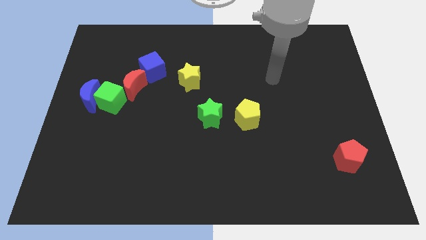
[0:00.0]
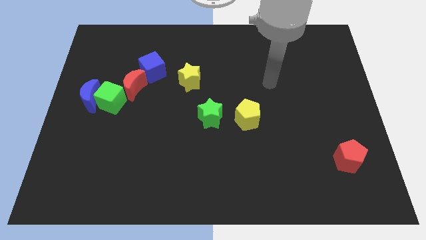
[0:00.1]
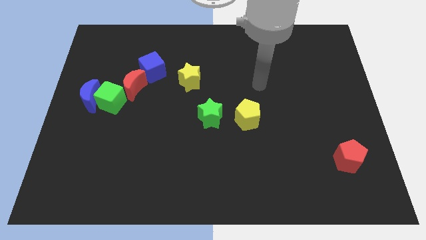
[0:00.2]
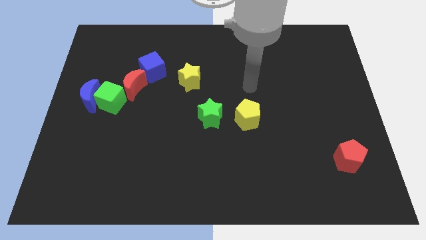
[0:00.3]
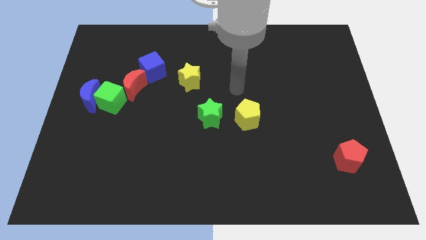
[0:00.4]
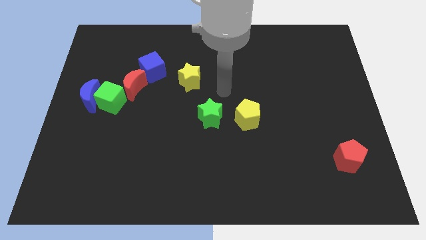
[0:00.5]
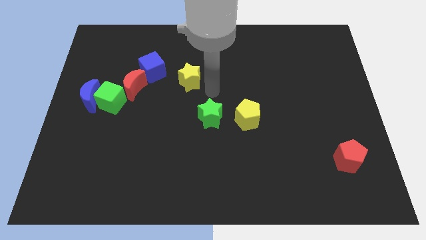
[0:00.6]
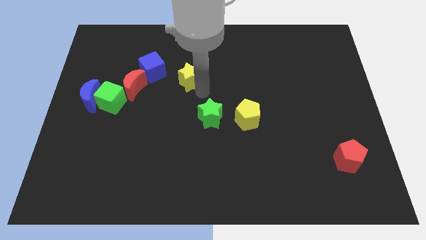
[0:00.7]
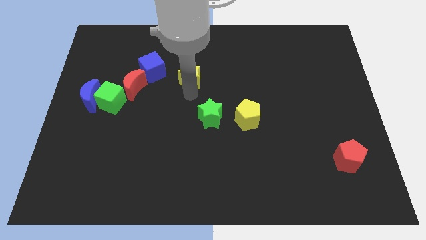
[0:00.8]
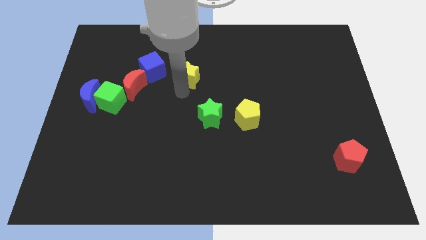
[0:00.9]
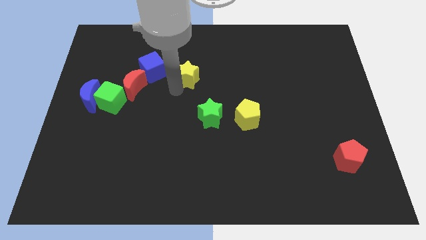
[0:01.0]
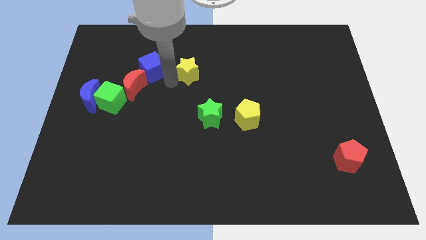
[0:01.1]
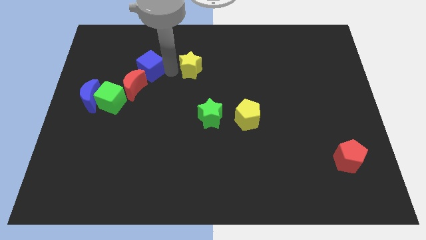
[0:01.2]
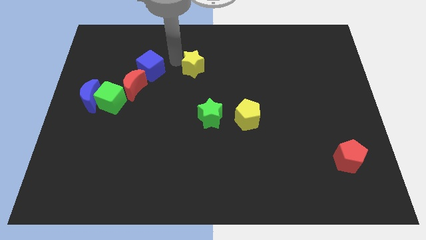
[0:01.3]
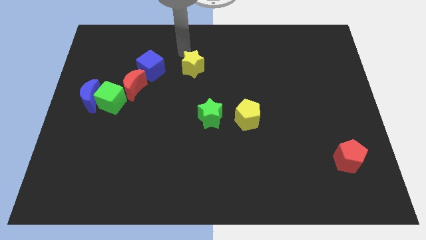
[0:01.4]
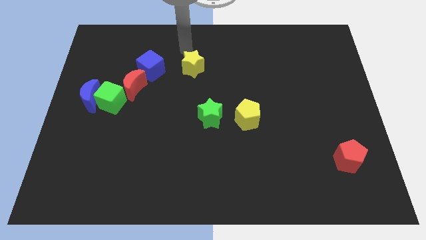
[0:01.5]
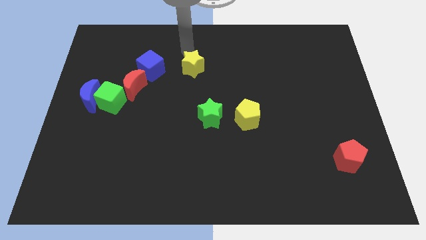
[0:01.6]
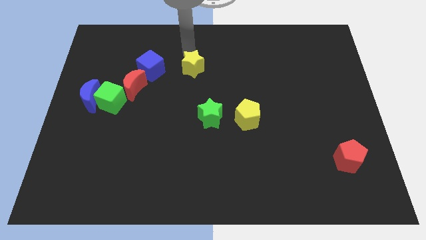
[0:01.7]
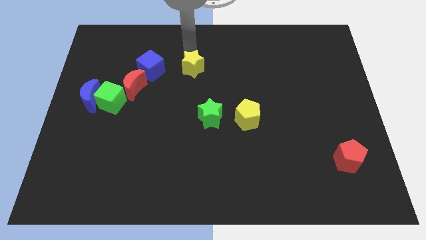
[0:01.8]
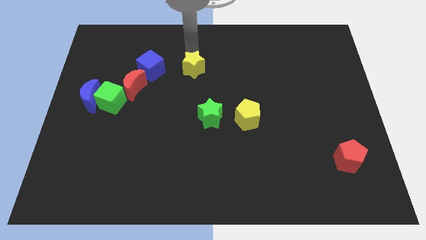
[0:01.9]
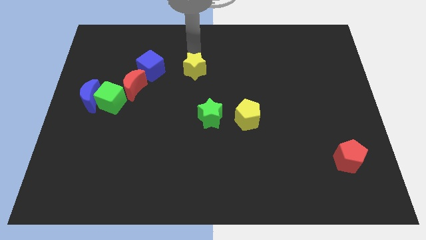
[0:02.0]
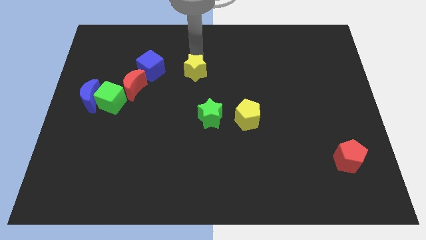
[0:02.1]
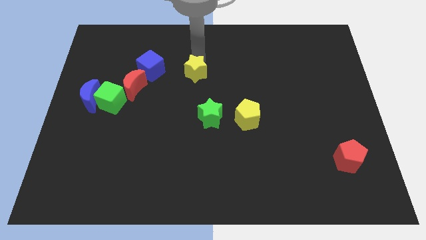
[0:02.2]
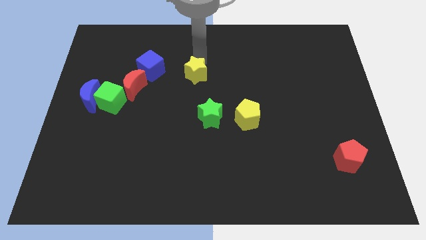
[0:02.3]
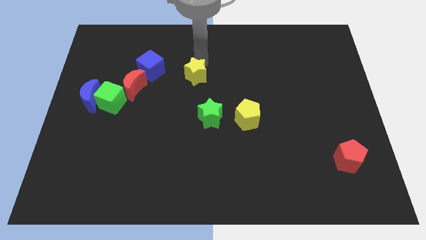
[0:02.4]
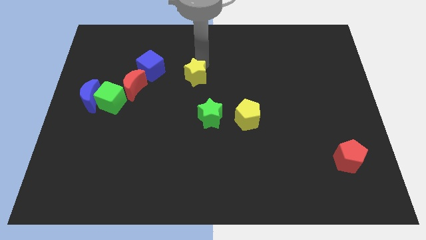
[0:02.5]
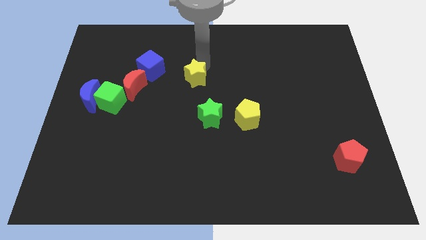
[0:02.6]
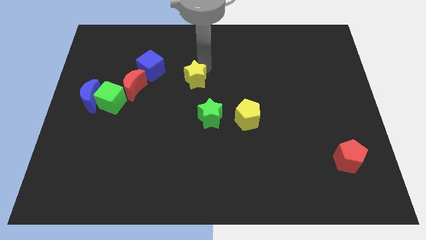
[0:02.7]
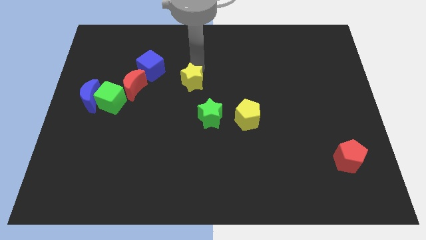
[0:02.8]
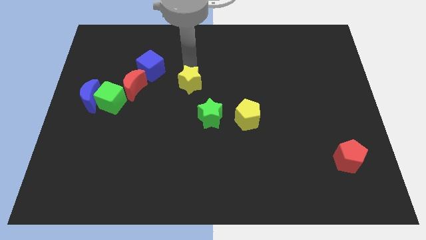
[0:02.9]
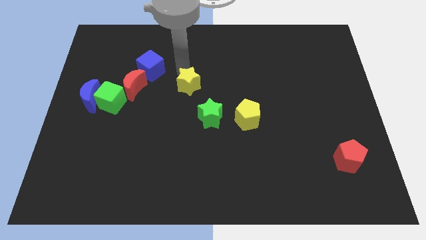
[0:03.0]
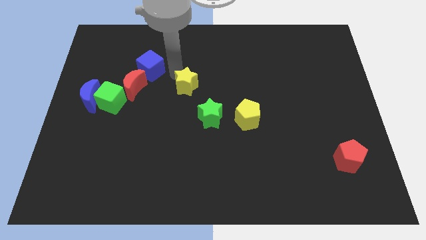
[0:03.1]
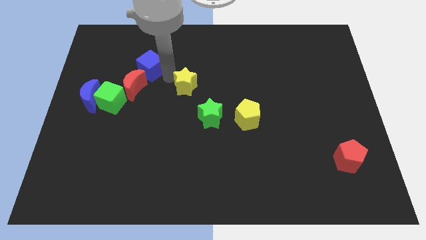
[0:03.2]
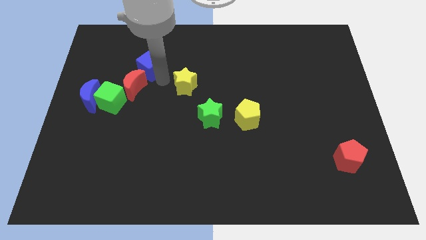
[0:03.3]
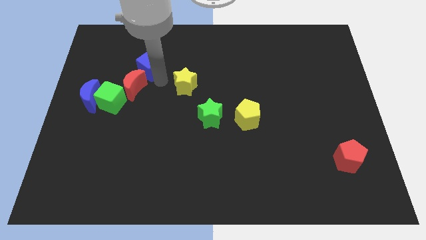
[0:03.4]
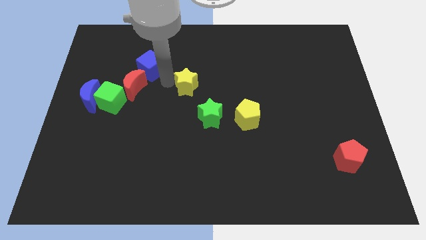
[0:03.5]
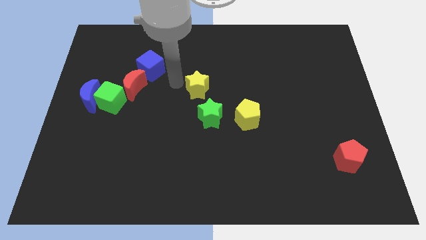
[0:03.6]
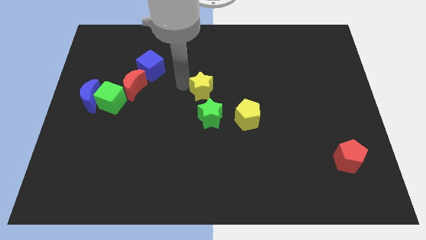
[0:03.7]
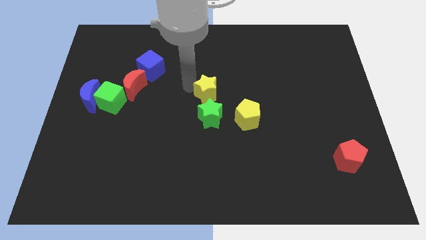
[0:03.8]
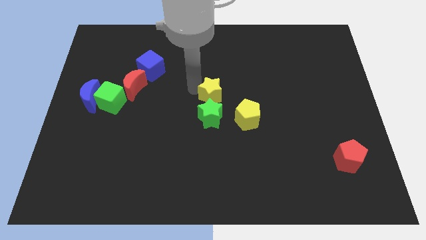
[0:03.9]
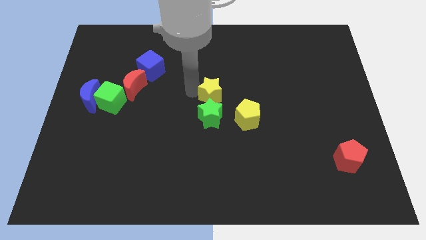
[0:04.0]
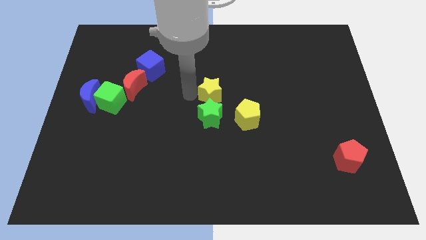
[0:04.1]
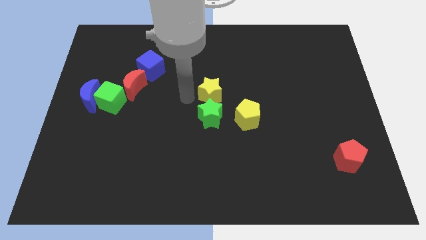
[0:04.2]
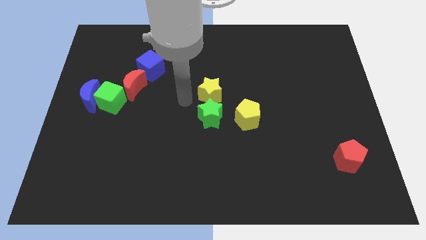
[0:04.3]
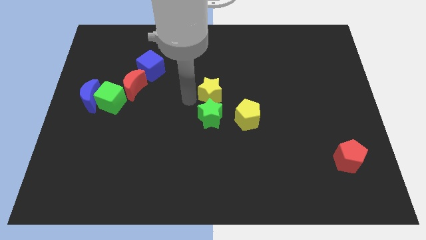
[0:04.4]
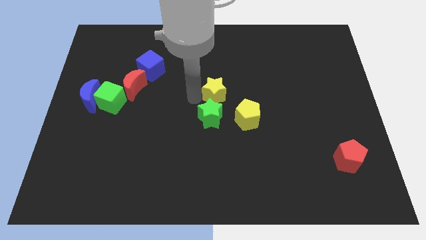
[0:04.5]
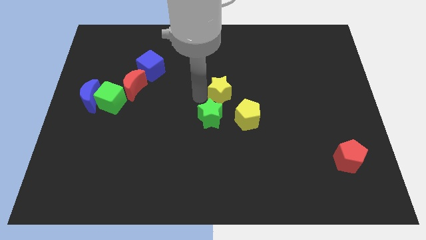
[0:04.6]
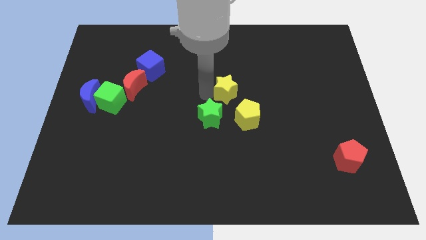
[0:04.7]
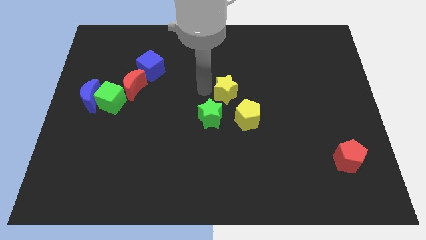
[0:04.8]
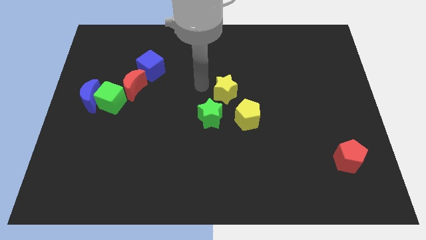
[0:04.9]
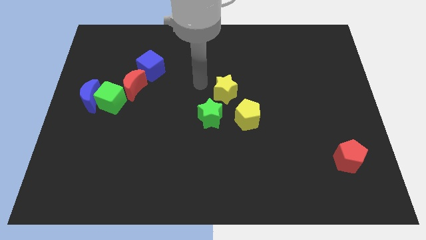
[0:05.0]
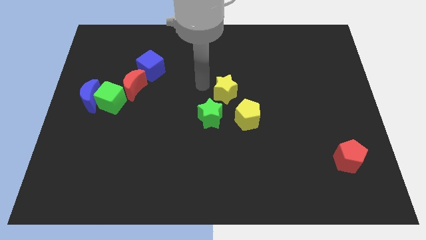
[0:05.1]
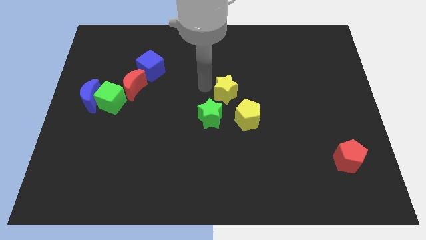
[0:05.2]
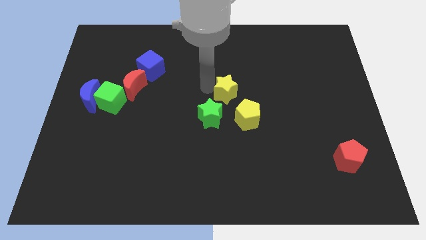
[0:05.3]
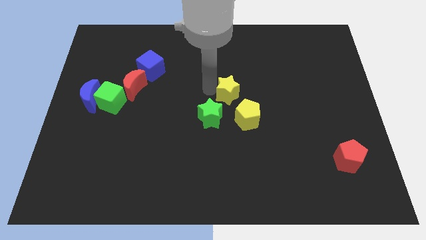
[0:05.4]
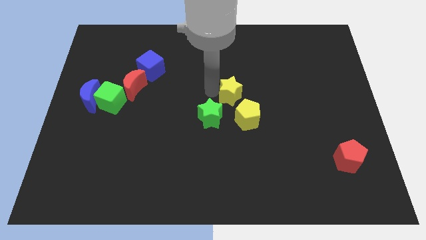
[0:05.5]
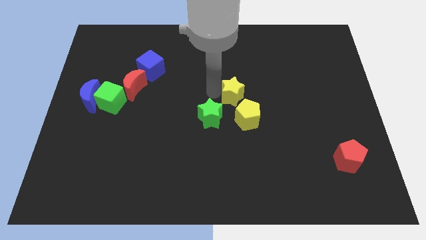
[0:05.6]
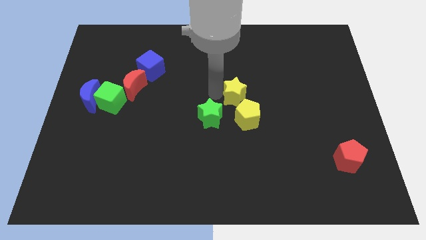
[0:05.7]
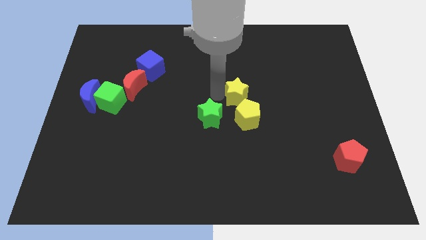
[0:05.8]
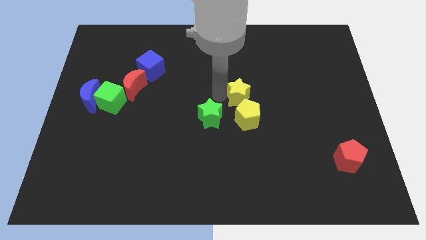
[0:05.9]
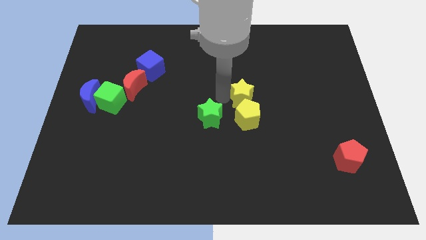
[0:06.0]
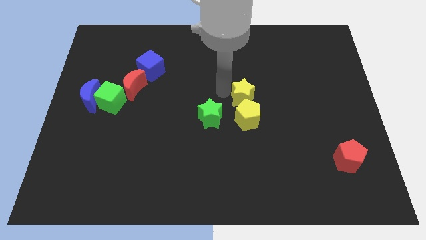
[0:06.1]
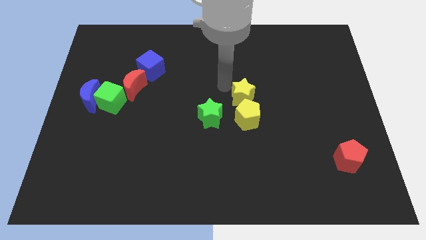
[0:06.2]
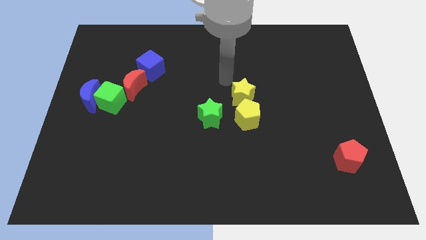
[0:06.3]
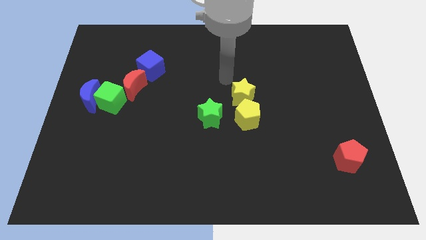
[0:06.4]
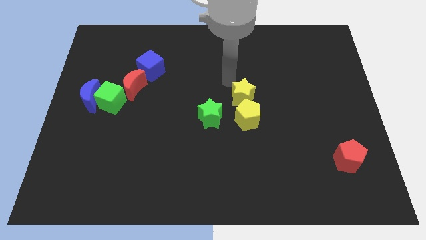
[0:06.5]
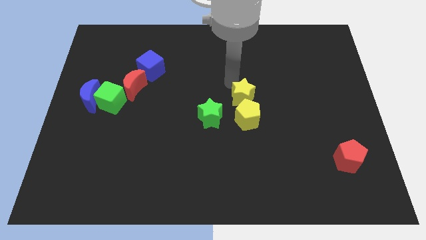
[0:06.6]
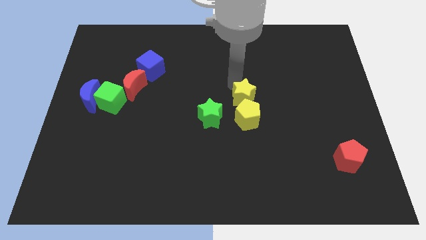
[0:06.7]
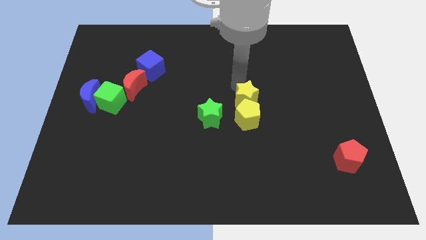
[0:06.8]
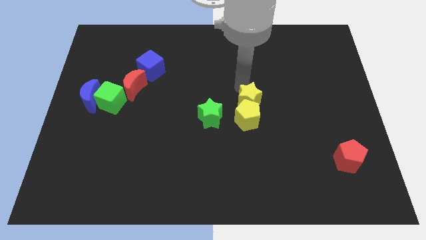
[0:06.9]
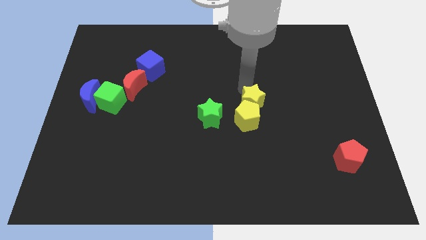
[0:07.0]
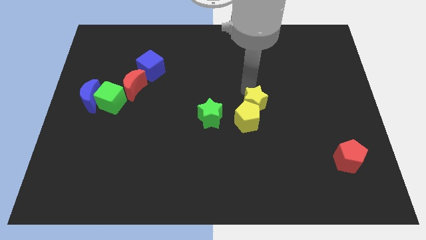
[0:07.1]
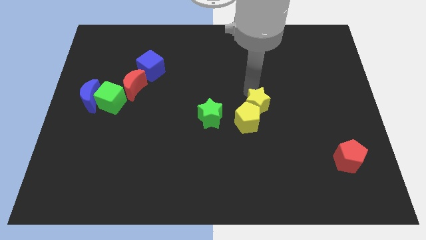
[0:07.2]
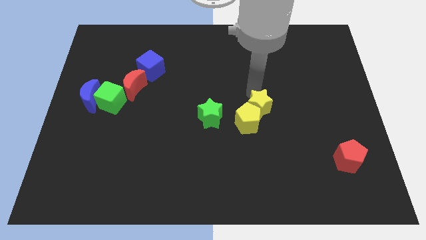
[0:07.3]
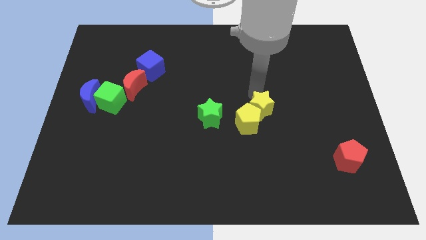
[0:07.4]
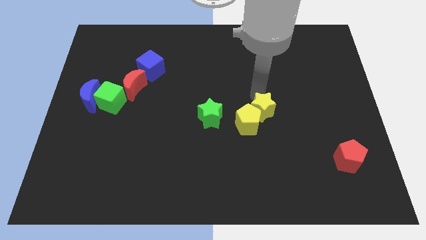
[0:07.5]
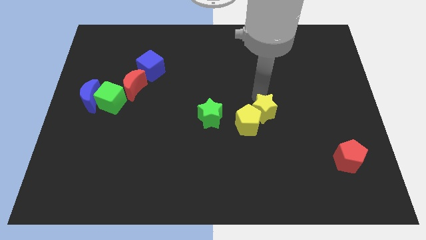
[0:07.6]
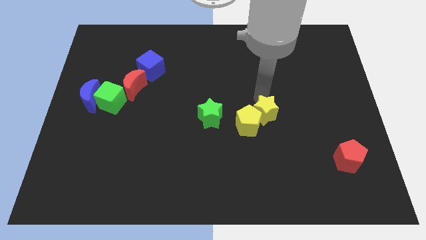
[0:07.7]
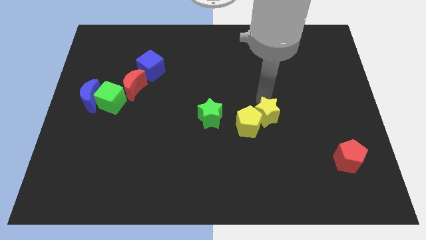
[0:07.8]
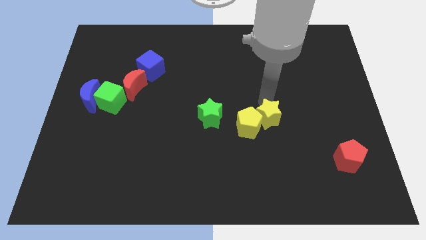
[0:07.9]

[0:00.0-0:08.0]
move the yellow star down and to the right

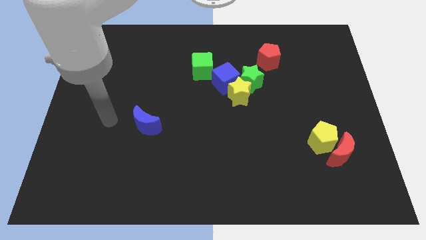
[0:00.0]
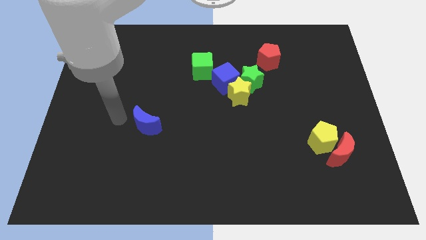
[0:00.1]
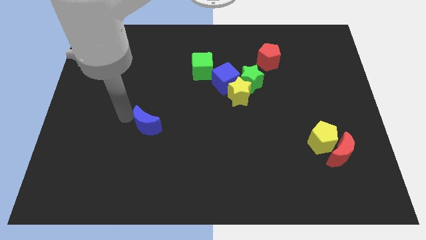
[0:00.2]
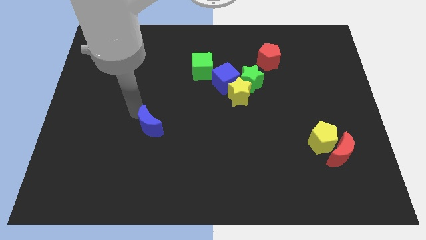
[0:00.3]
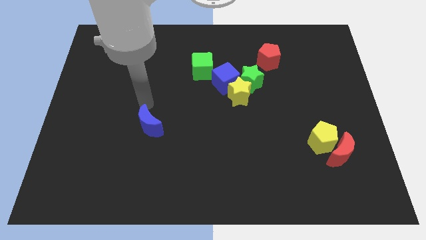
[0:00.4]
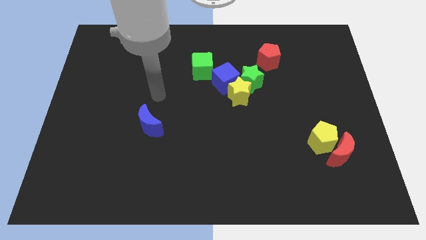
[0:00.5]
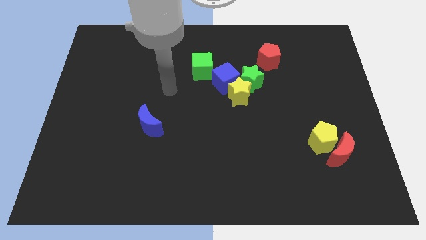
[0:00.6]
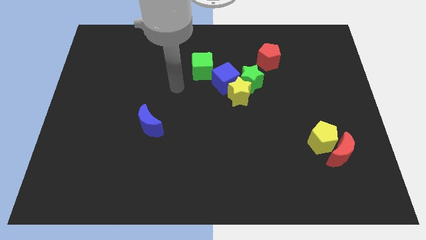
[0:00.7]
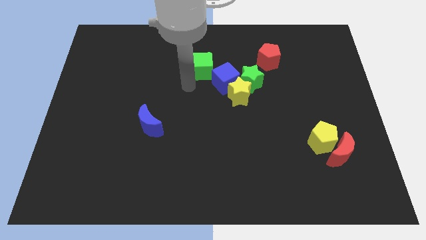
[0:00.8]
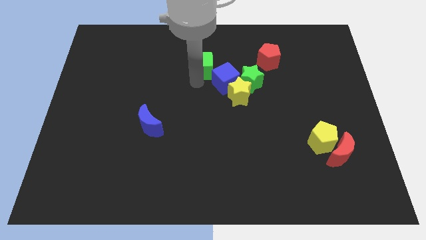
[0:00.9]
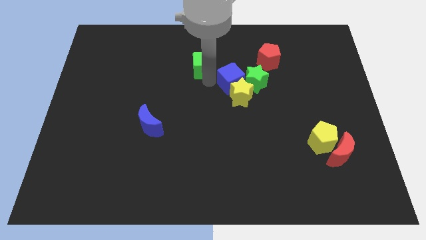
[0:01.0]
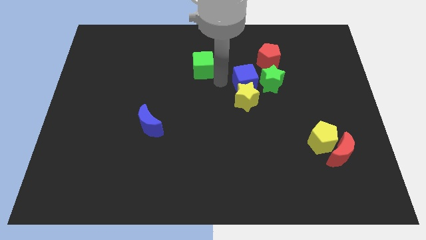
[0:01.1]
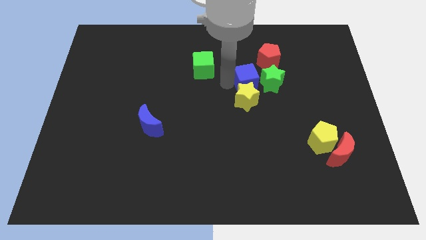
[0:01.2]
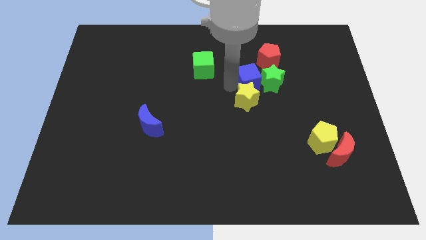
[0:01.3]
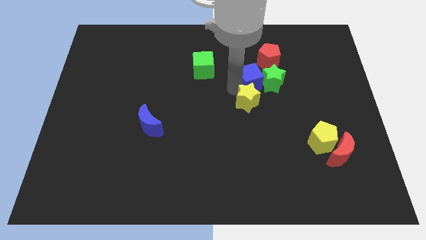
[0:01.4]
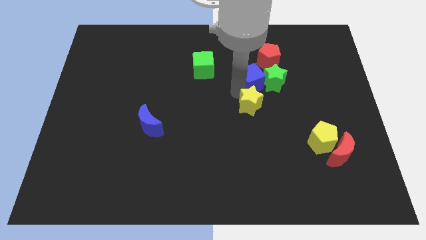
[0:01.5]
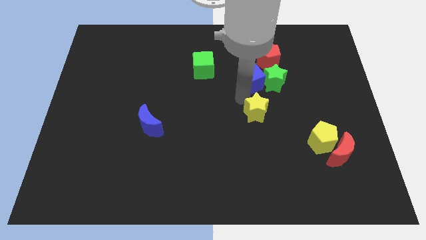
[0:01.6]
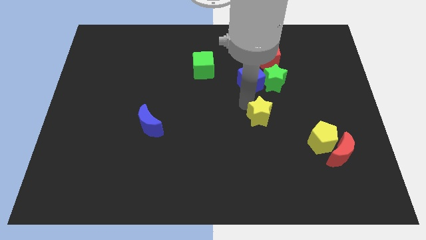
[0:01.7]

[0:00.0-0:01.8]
slightly slide the yellow star diagonally downwards and right
